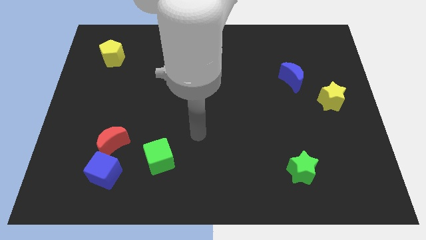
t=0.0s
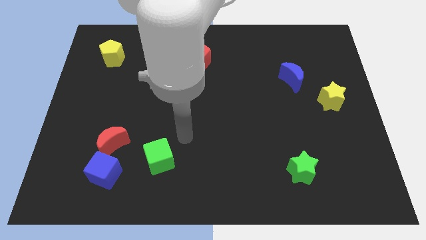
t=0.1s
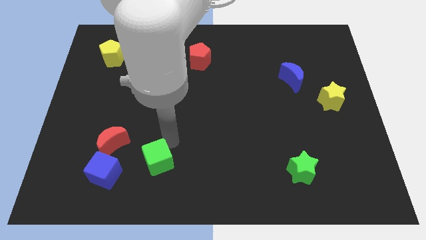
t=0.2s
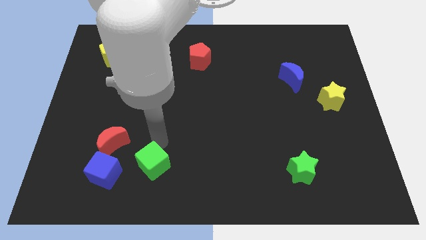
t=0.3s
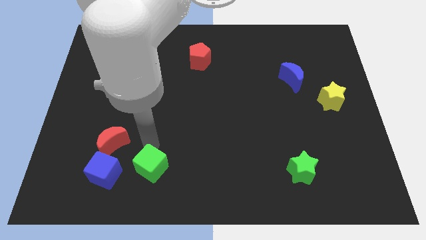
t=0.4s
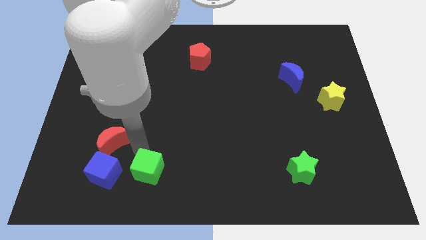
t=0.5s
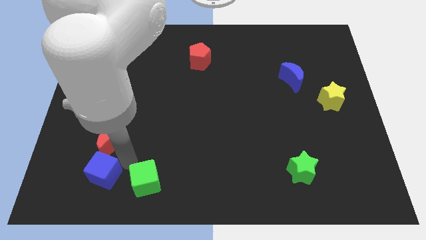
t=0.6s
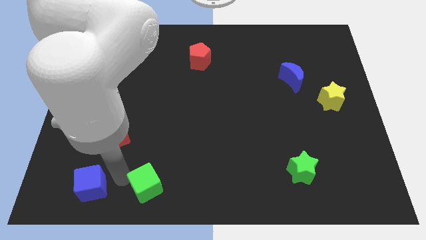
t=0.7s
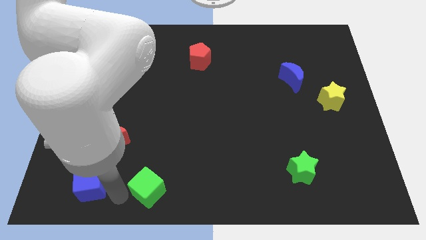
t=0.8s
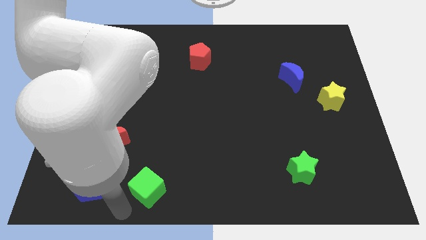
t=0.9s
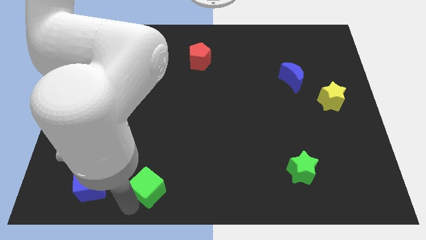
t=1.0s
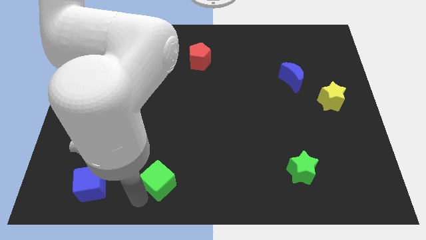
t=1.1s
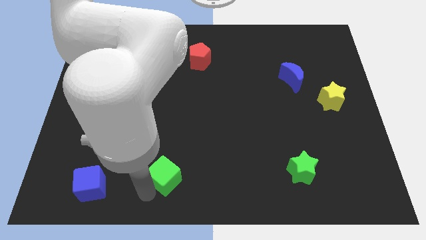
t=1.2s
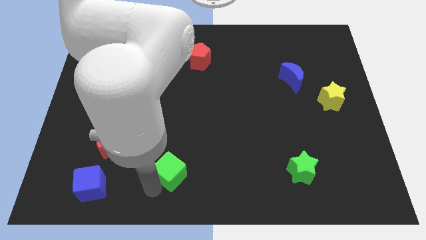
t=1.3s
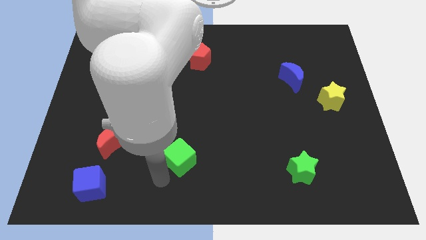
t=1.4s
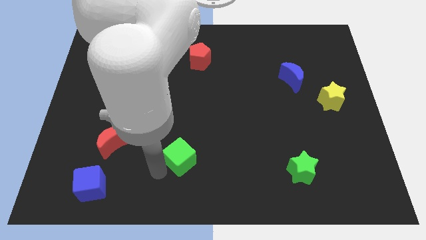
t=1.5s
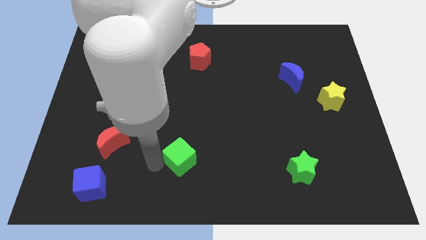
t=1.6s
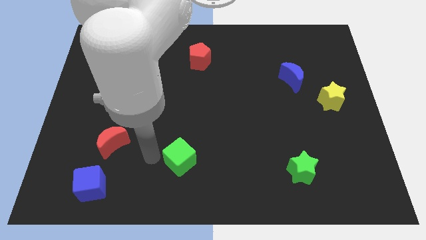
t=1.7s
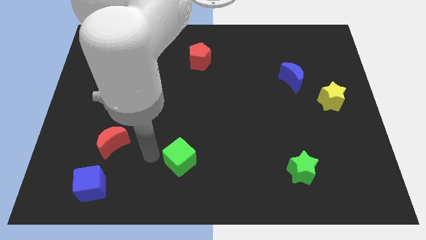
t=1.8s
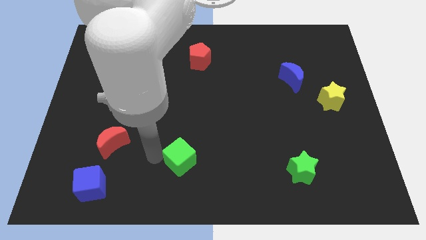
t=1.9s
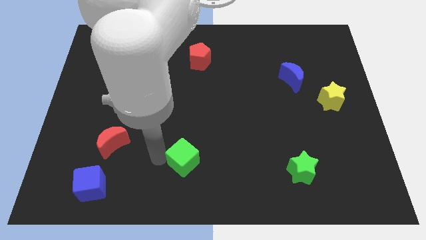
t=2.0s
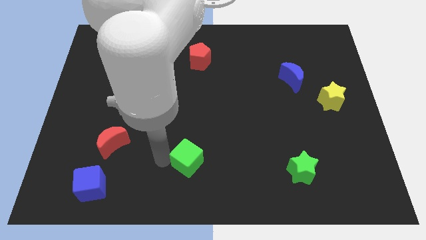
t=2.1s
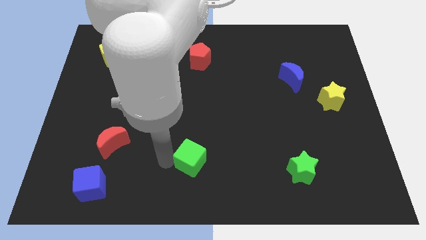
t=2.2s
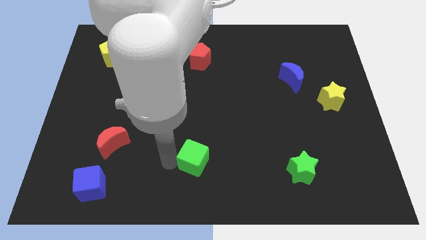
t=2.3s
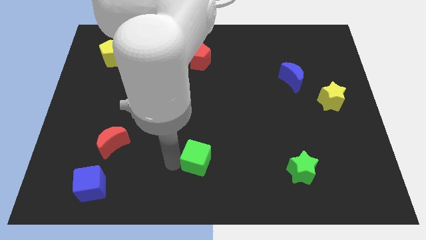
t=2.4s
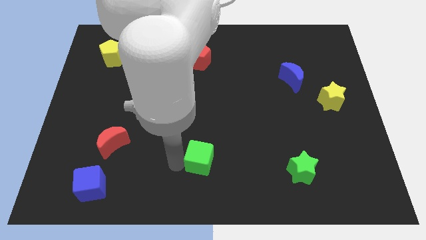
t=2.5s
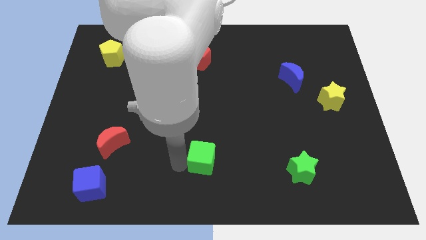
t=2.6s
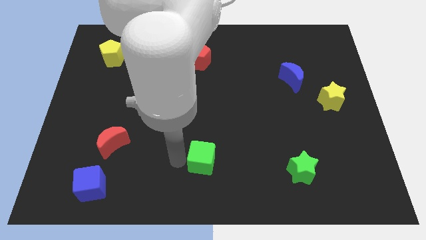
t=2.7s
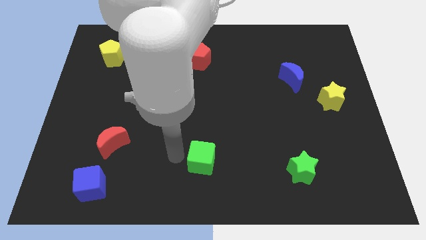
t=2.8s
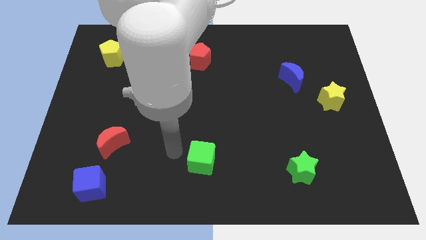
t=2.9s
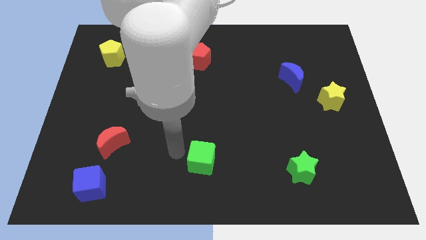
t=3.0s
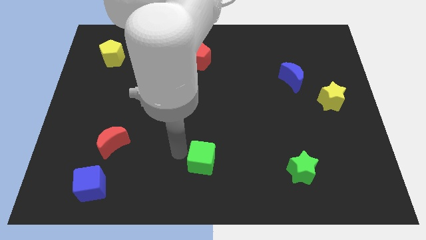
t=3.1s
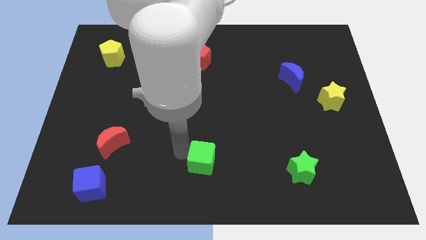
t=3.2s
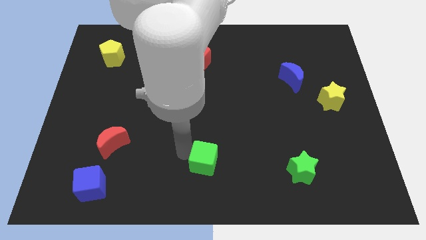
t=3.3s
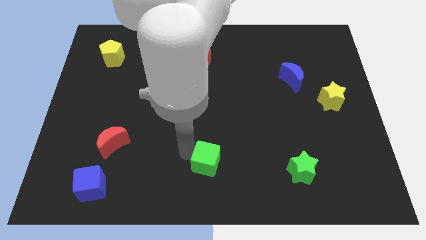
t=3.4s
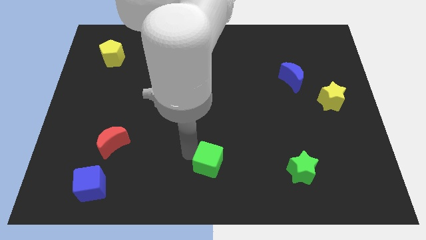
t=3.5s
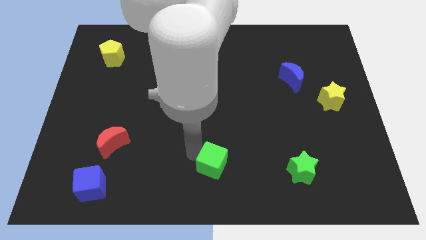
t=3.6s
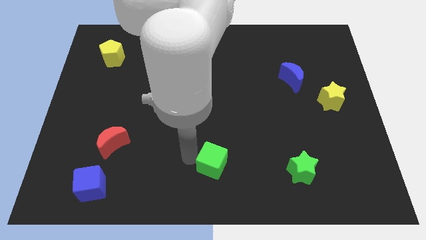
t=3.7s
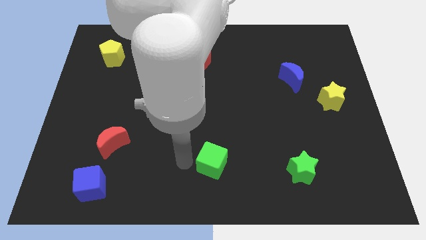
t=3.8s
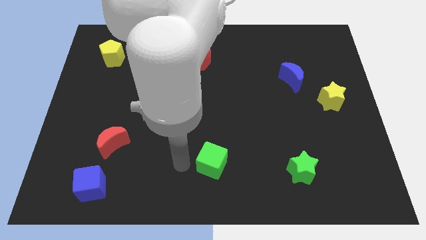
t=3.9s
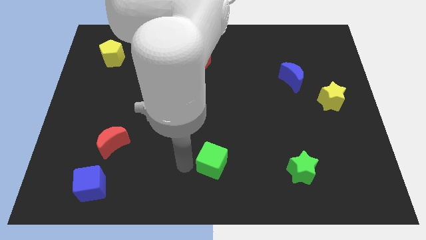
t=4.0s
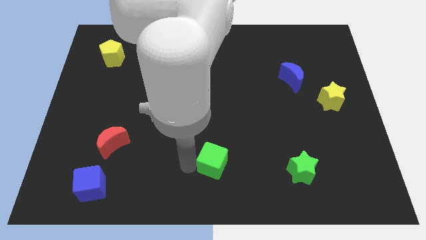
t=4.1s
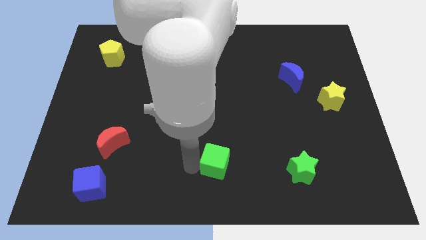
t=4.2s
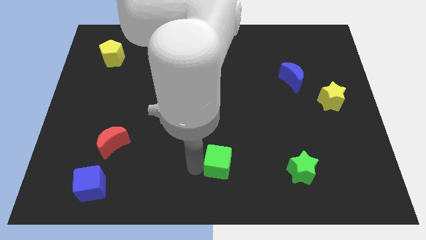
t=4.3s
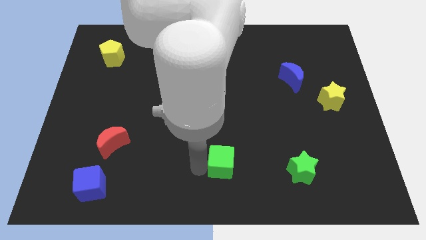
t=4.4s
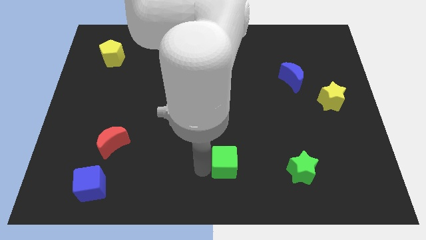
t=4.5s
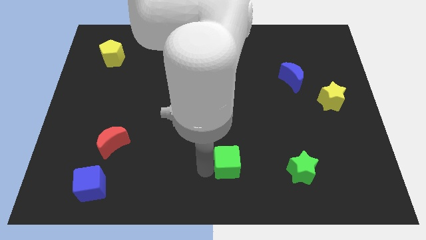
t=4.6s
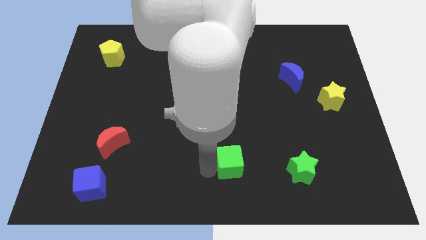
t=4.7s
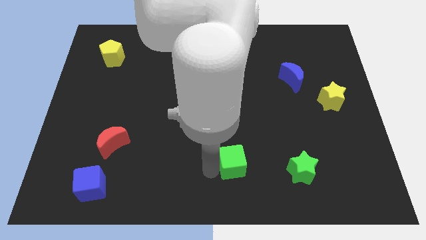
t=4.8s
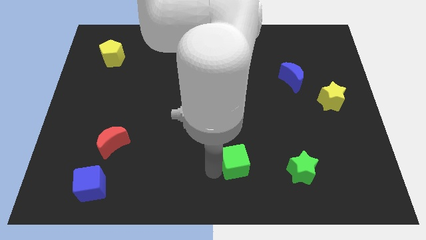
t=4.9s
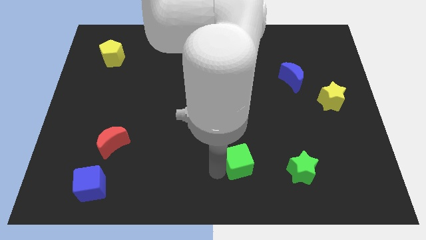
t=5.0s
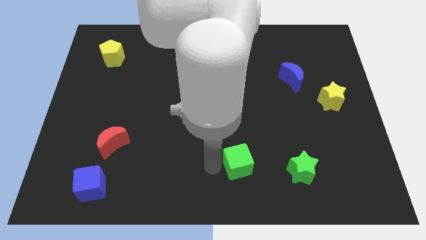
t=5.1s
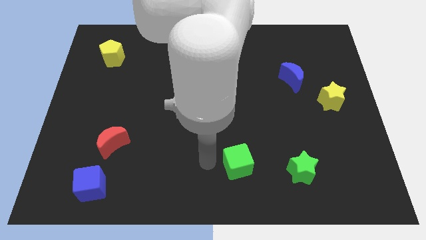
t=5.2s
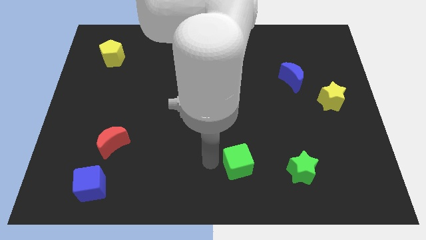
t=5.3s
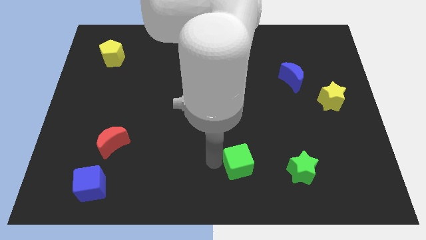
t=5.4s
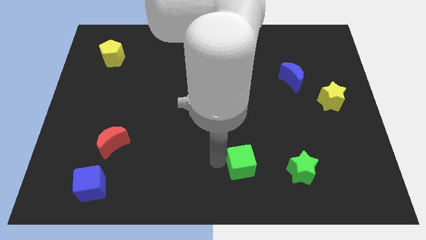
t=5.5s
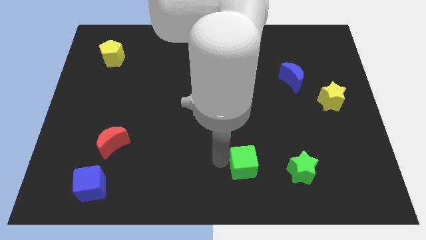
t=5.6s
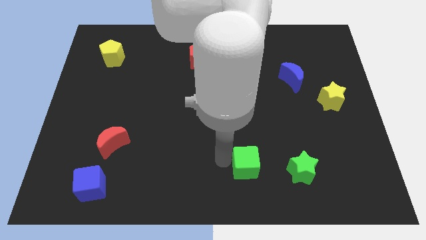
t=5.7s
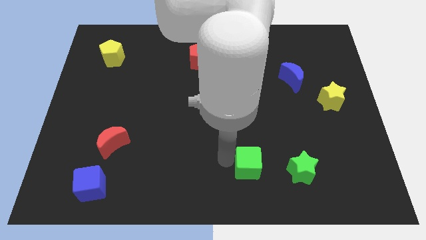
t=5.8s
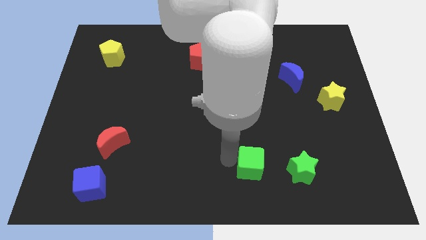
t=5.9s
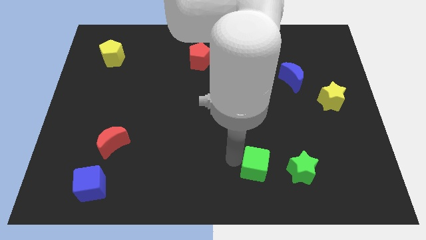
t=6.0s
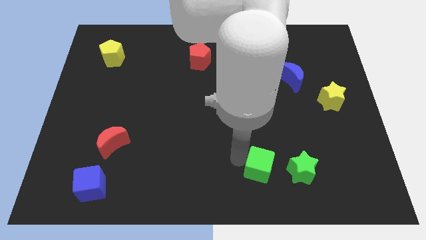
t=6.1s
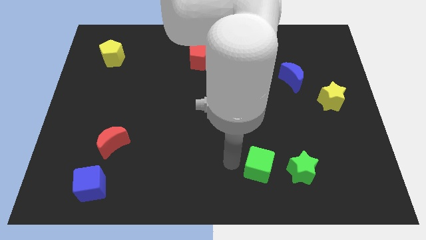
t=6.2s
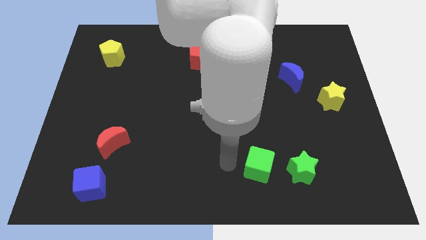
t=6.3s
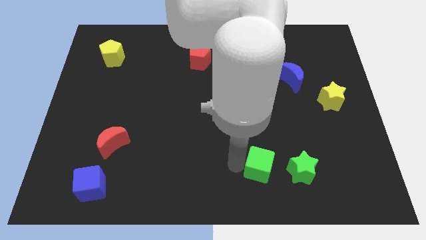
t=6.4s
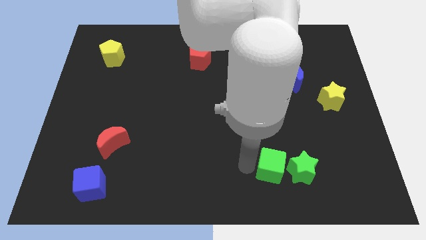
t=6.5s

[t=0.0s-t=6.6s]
push the green cube to the green star

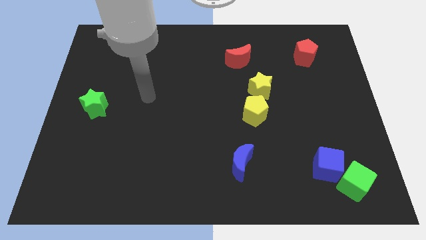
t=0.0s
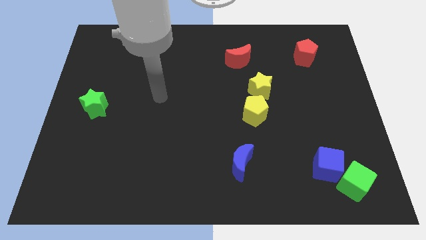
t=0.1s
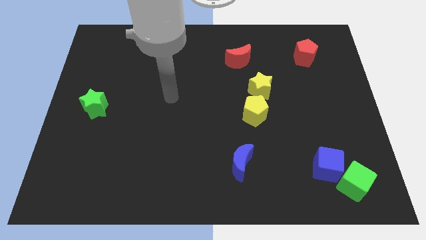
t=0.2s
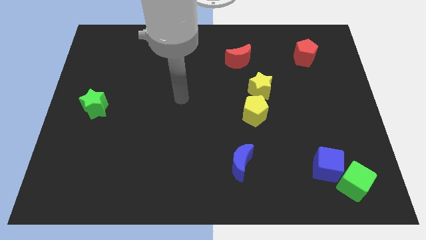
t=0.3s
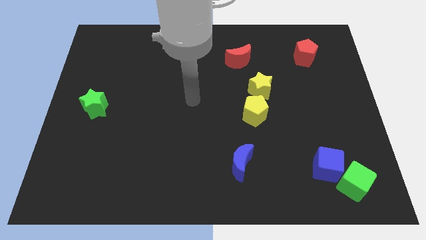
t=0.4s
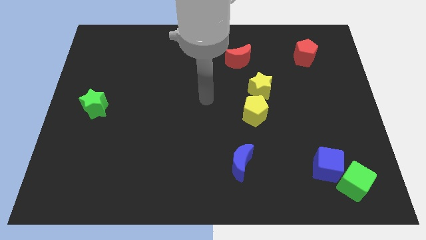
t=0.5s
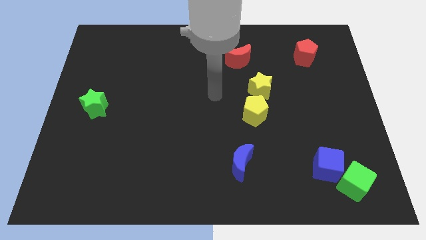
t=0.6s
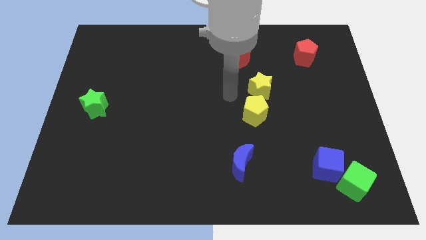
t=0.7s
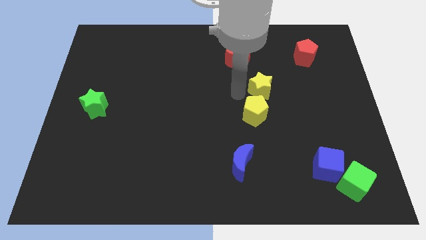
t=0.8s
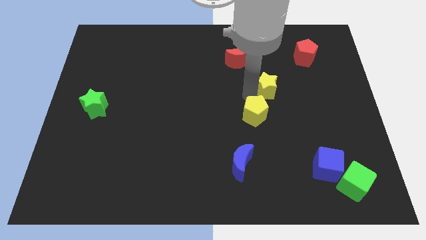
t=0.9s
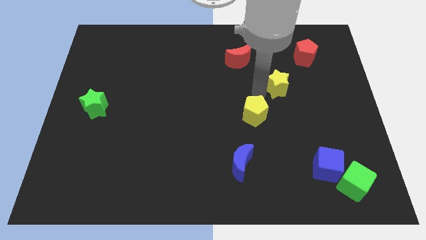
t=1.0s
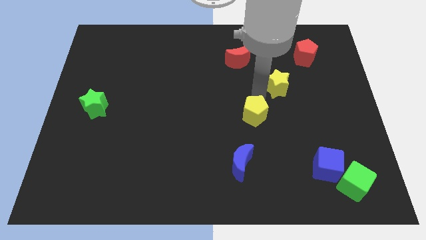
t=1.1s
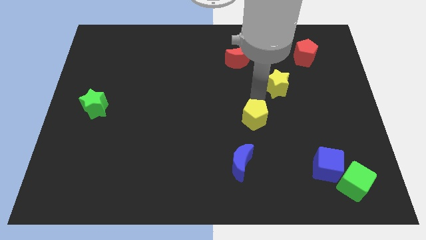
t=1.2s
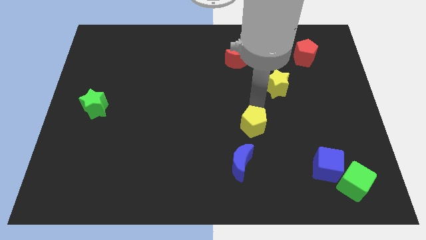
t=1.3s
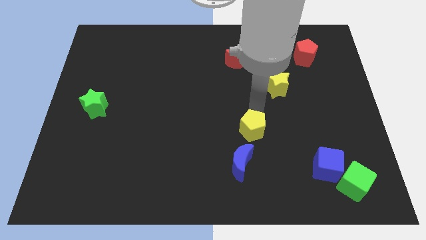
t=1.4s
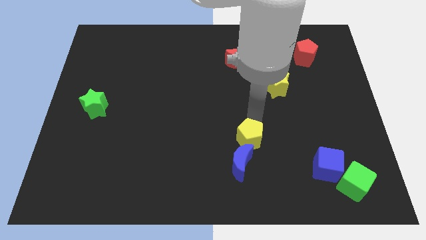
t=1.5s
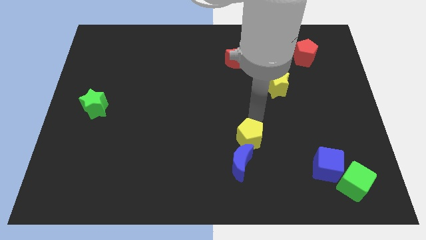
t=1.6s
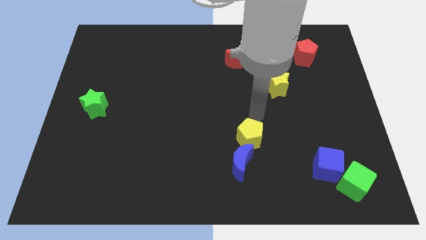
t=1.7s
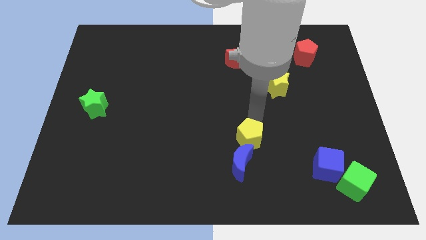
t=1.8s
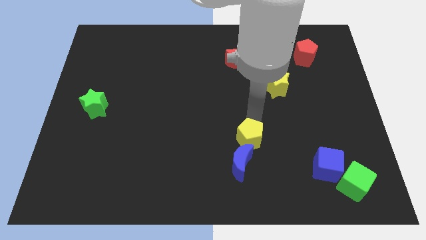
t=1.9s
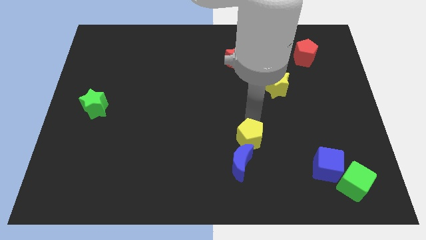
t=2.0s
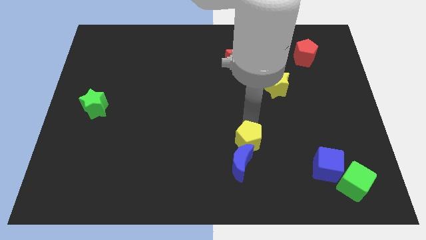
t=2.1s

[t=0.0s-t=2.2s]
move the yellow pentagon towards the blue moon
